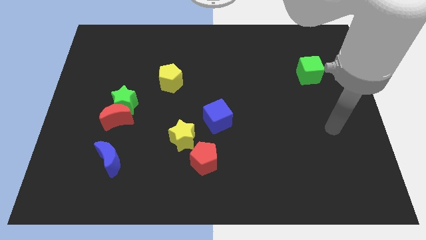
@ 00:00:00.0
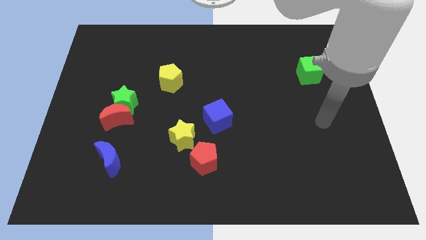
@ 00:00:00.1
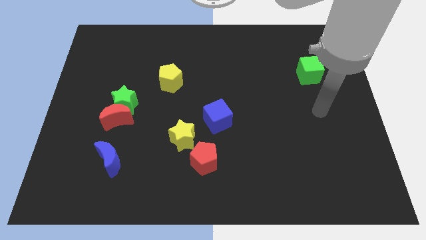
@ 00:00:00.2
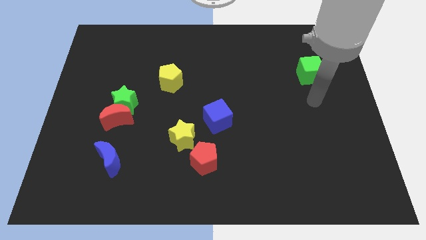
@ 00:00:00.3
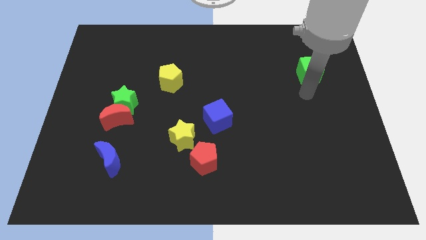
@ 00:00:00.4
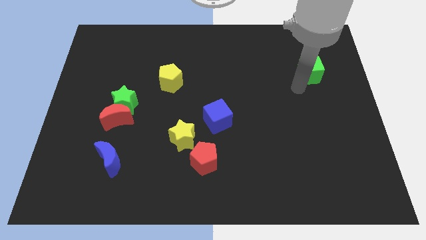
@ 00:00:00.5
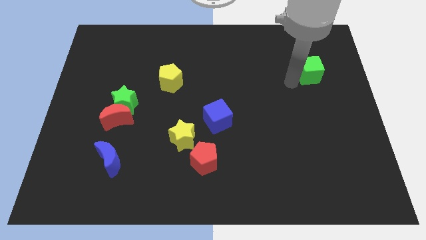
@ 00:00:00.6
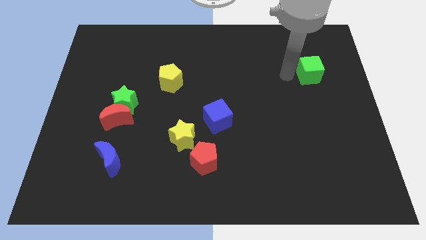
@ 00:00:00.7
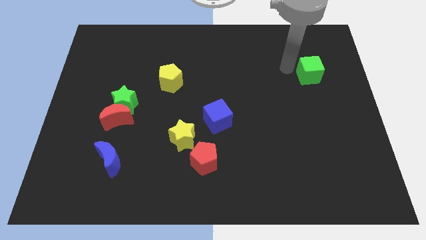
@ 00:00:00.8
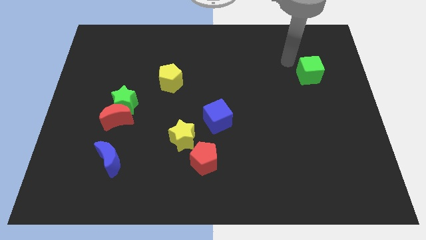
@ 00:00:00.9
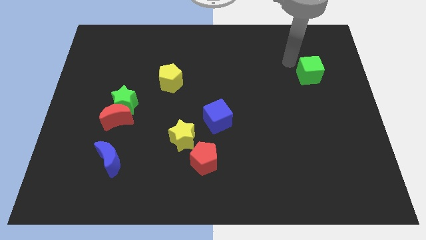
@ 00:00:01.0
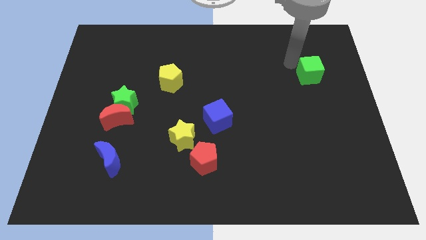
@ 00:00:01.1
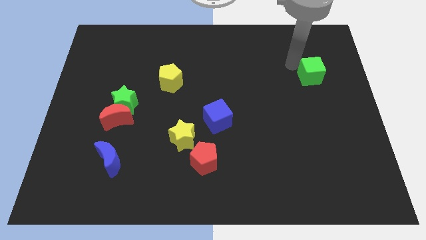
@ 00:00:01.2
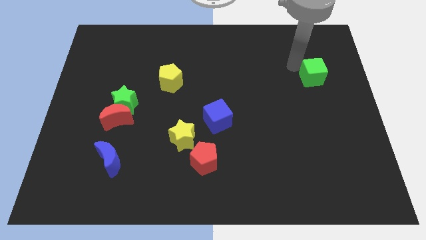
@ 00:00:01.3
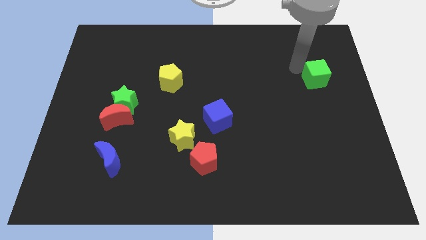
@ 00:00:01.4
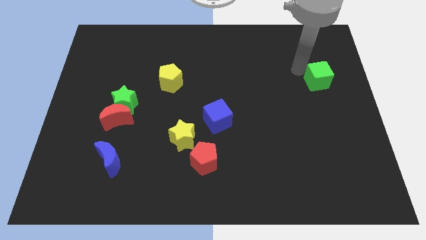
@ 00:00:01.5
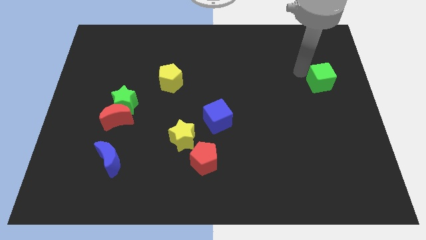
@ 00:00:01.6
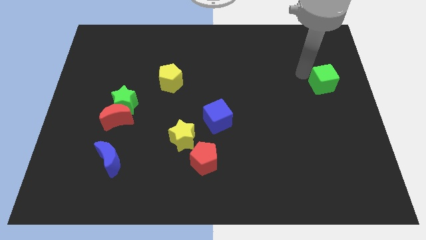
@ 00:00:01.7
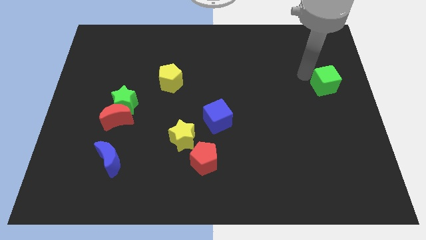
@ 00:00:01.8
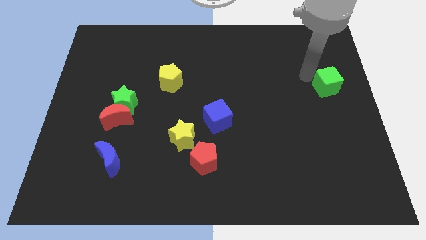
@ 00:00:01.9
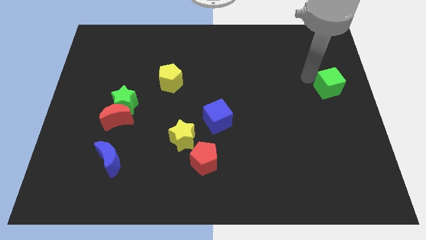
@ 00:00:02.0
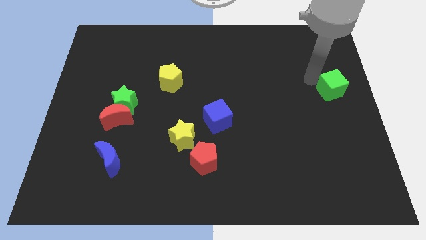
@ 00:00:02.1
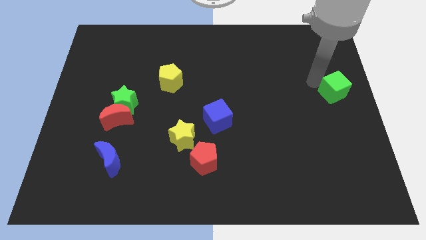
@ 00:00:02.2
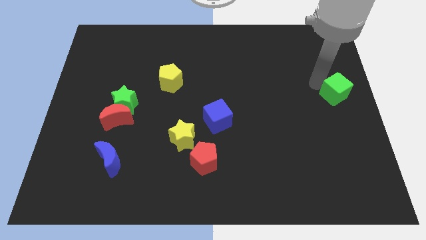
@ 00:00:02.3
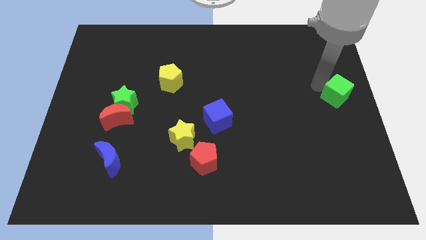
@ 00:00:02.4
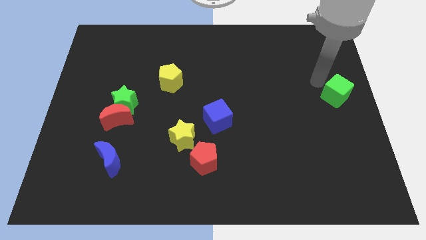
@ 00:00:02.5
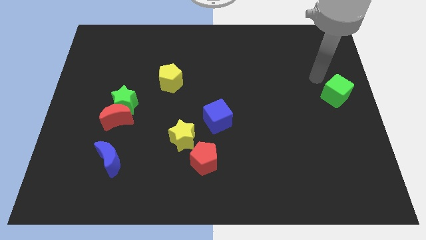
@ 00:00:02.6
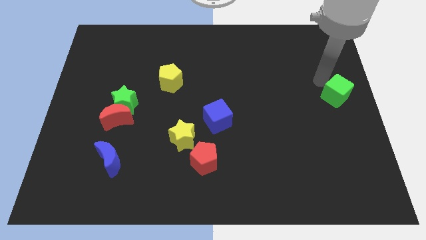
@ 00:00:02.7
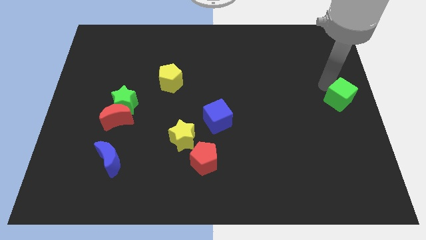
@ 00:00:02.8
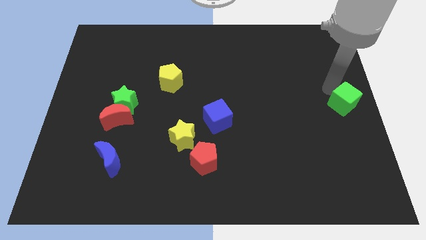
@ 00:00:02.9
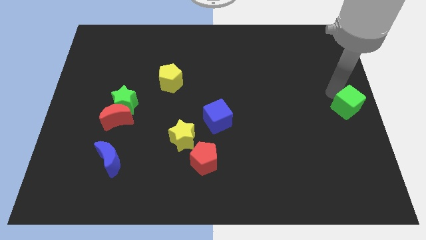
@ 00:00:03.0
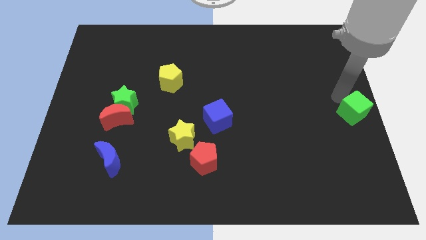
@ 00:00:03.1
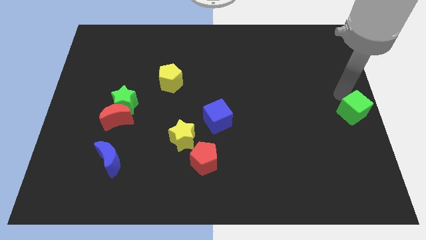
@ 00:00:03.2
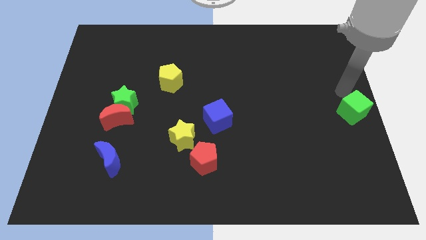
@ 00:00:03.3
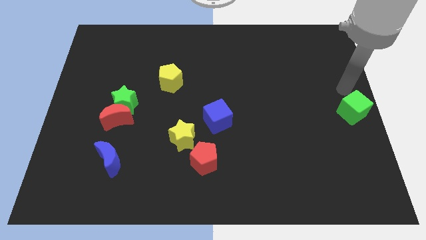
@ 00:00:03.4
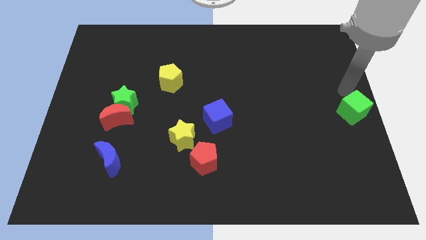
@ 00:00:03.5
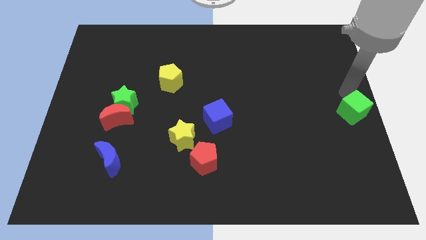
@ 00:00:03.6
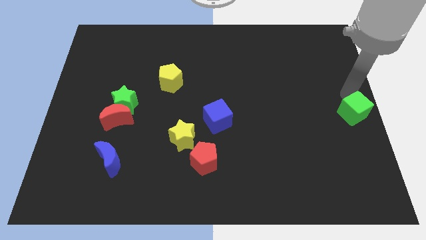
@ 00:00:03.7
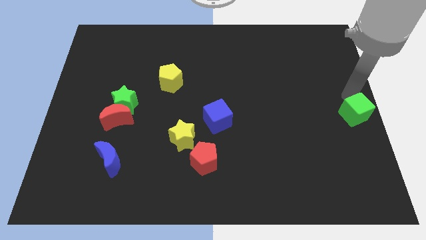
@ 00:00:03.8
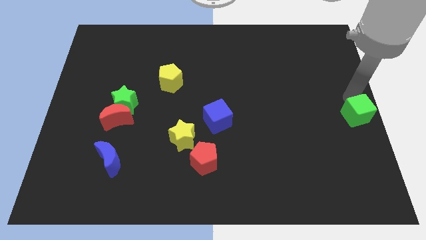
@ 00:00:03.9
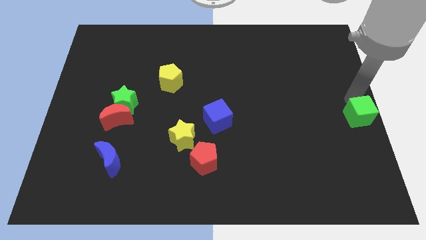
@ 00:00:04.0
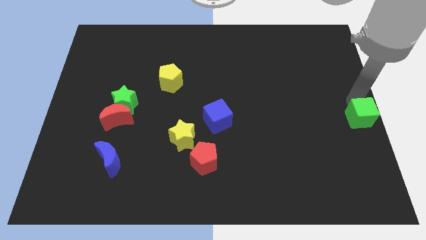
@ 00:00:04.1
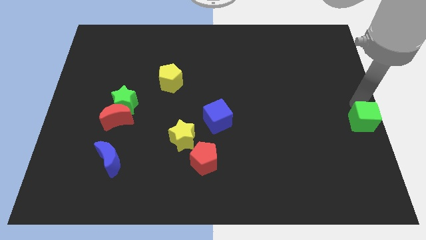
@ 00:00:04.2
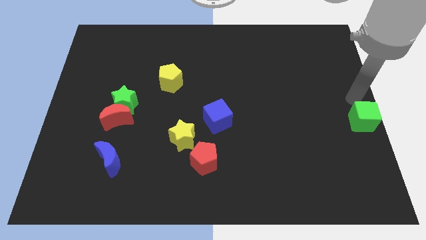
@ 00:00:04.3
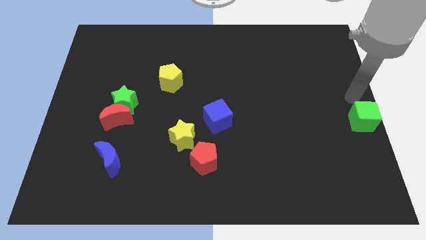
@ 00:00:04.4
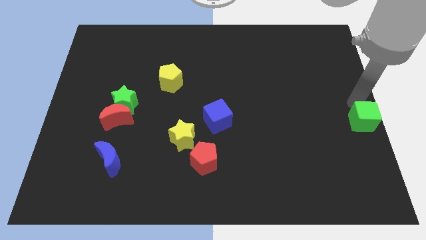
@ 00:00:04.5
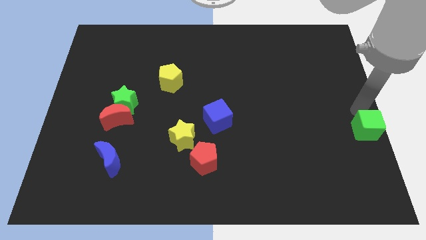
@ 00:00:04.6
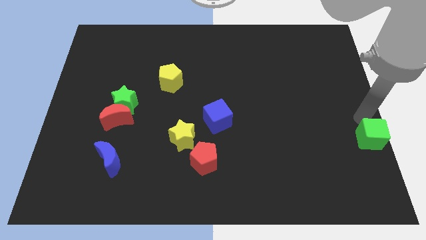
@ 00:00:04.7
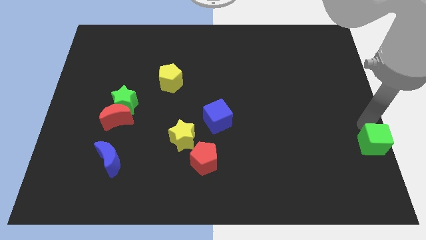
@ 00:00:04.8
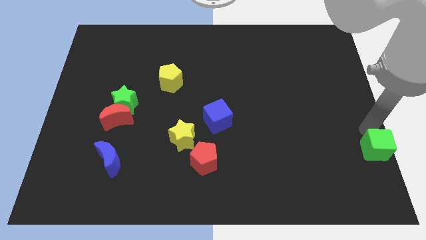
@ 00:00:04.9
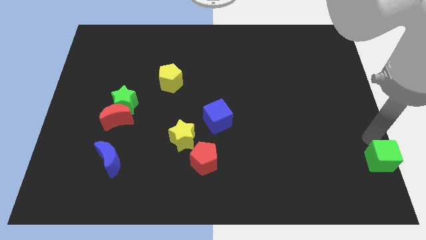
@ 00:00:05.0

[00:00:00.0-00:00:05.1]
slide the green cube to the bottom right of the board
